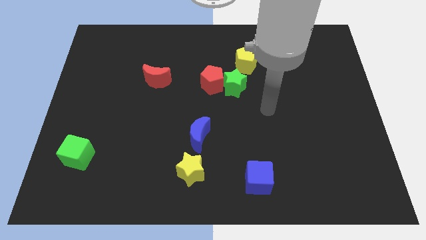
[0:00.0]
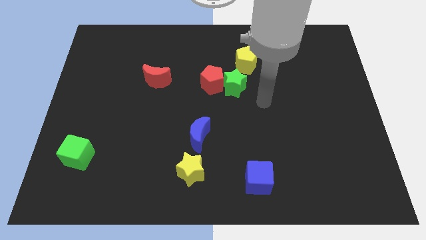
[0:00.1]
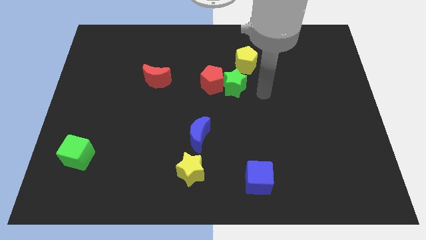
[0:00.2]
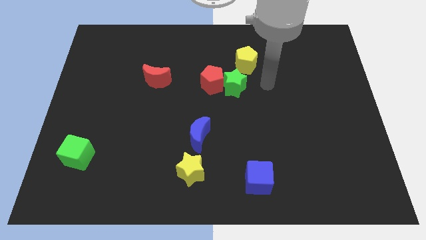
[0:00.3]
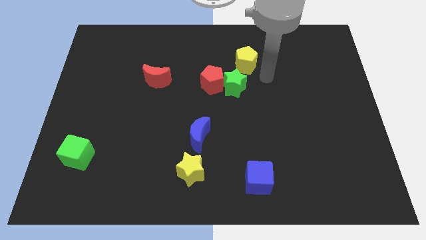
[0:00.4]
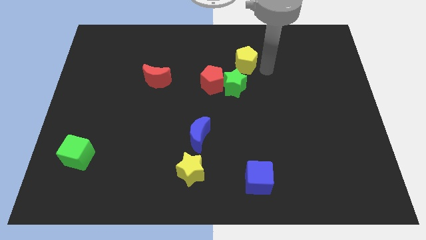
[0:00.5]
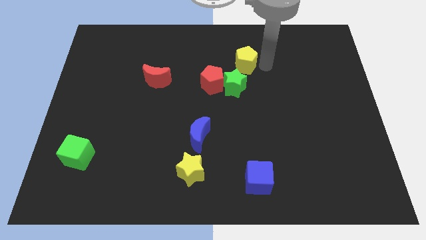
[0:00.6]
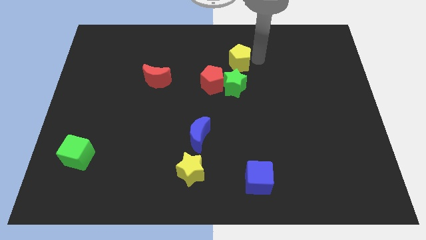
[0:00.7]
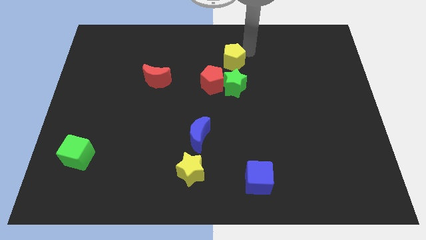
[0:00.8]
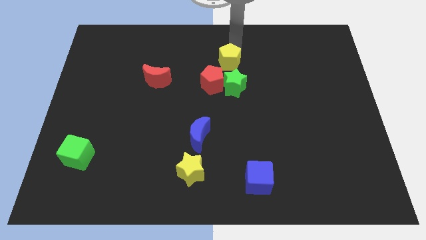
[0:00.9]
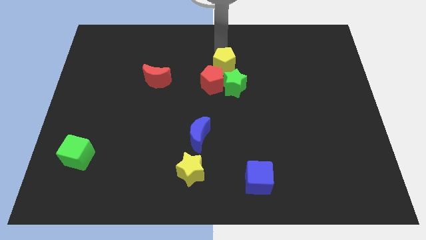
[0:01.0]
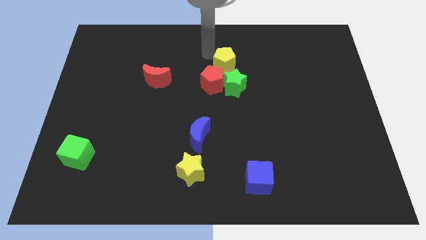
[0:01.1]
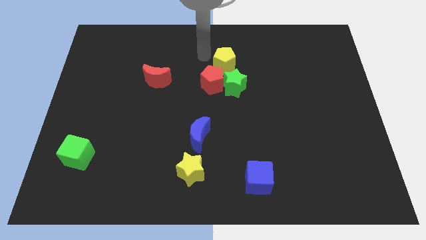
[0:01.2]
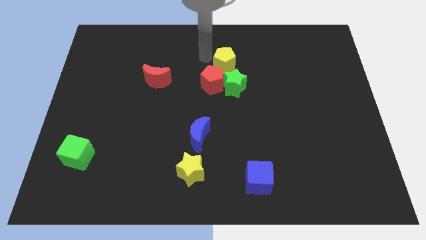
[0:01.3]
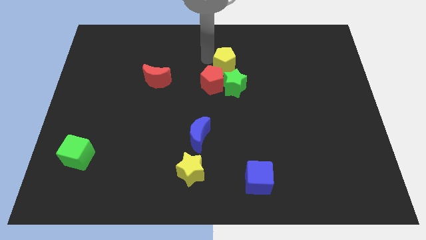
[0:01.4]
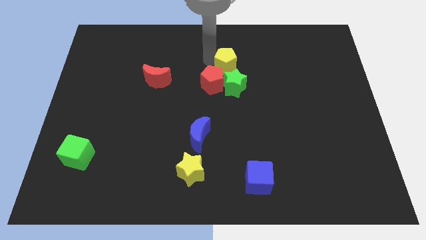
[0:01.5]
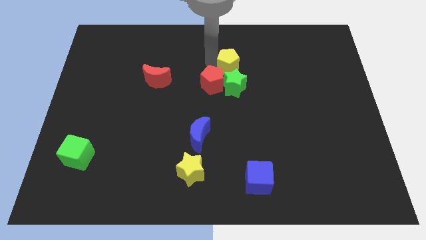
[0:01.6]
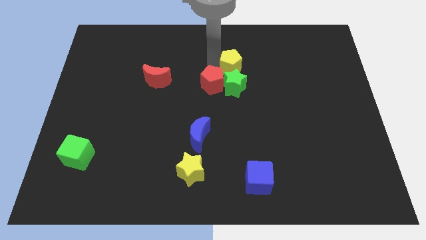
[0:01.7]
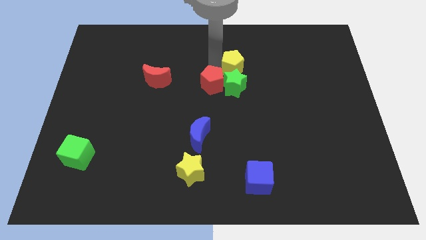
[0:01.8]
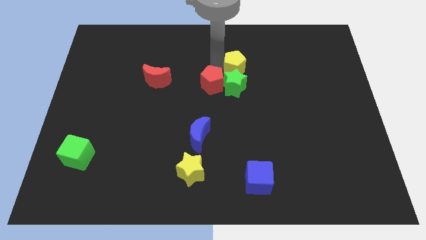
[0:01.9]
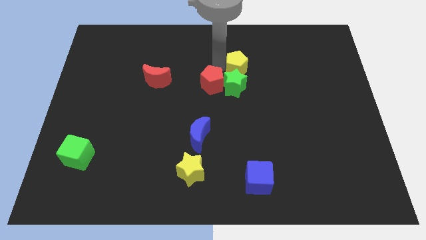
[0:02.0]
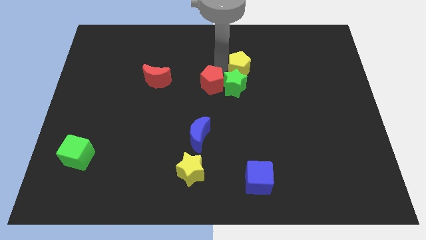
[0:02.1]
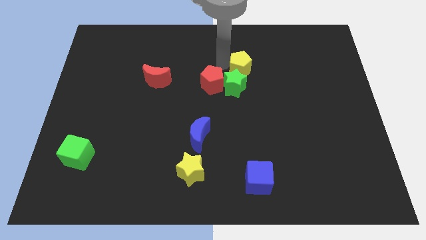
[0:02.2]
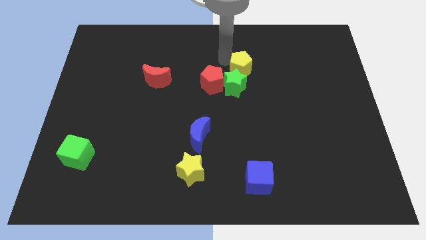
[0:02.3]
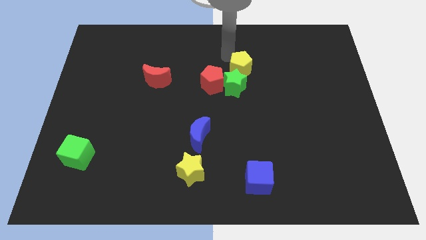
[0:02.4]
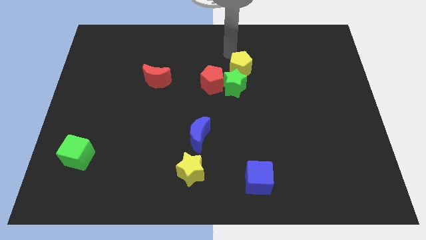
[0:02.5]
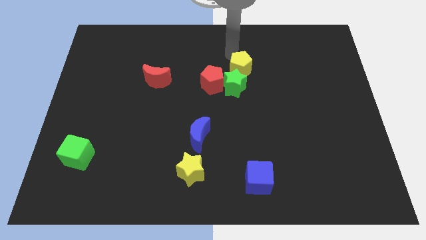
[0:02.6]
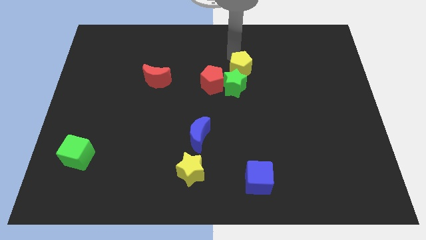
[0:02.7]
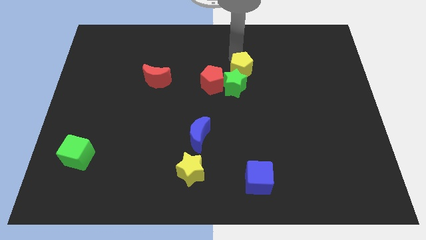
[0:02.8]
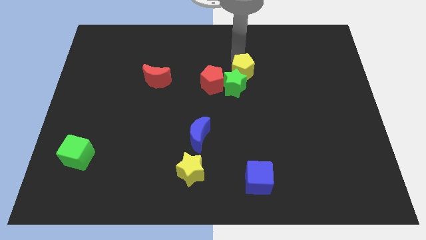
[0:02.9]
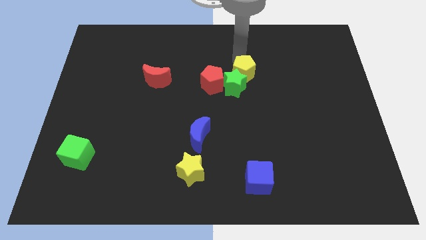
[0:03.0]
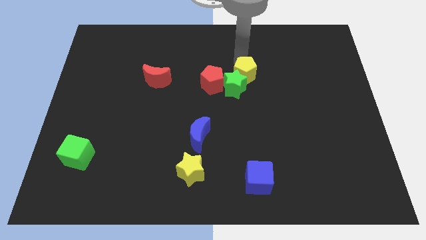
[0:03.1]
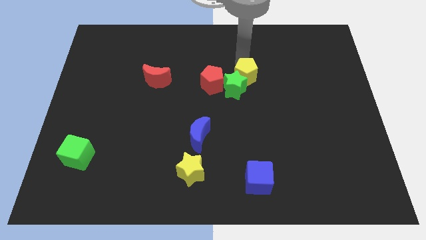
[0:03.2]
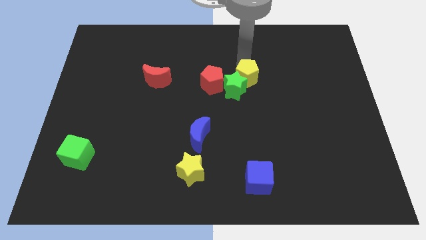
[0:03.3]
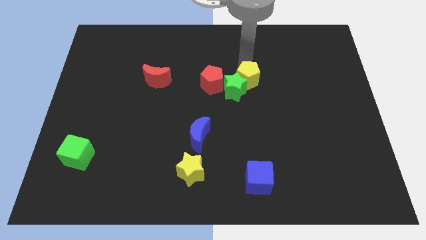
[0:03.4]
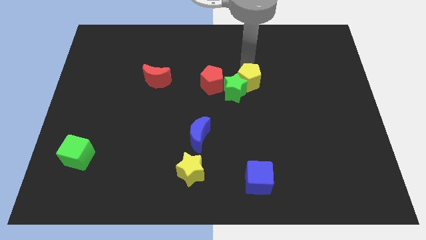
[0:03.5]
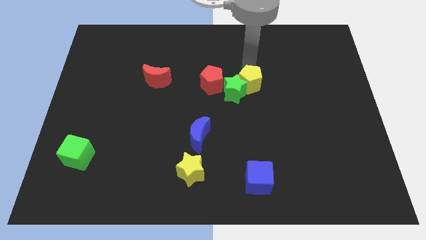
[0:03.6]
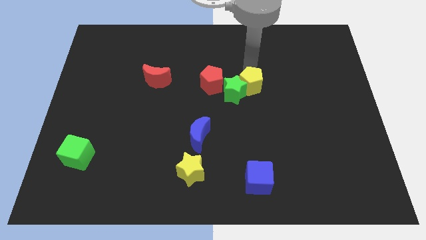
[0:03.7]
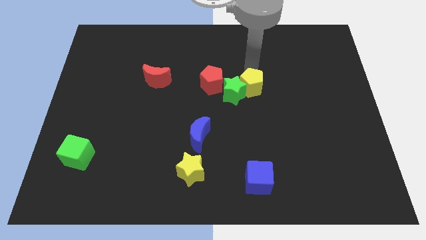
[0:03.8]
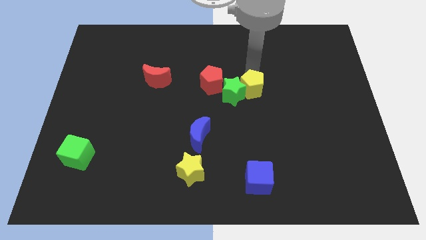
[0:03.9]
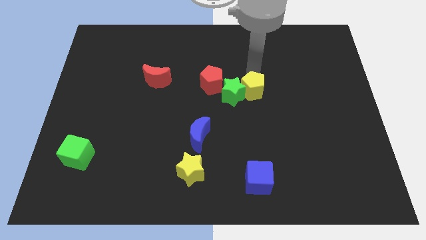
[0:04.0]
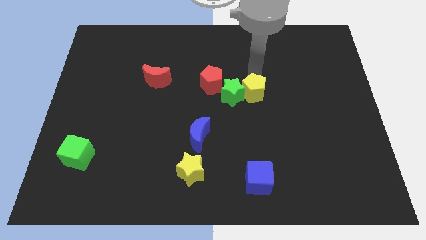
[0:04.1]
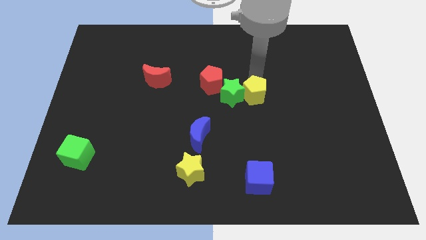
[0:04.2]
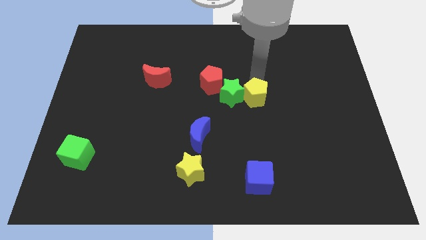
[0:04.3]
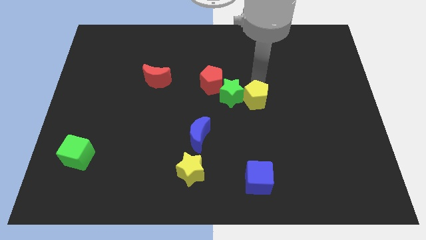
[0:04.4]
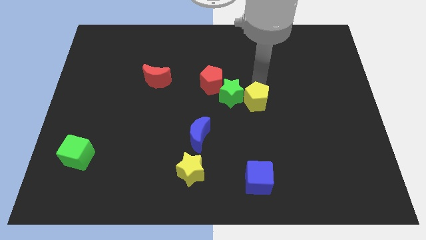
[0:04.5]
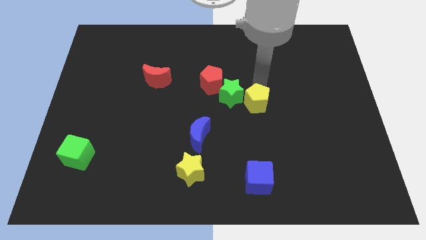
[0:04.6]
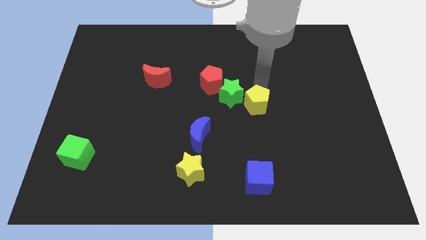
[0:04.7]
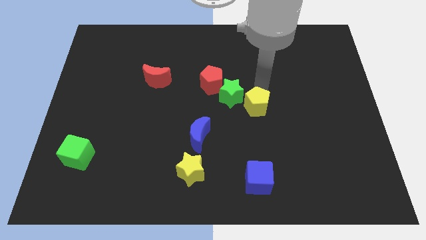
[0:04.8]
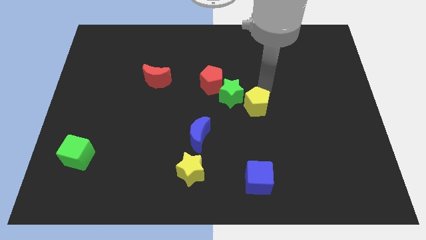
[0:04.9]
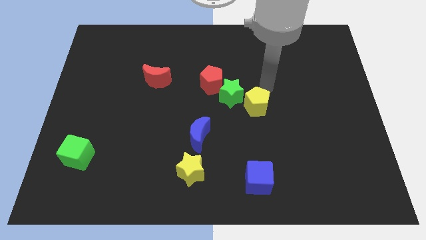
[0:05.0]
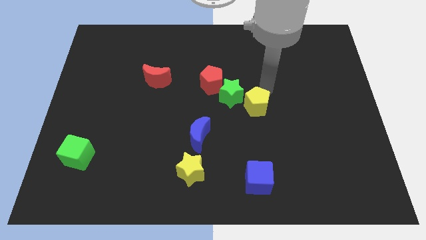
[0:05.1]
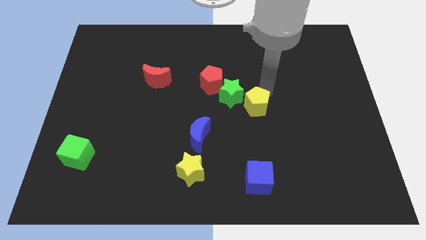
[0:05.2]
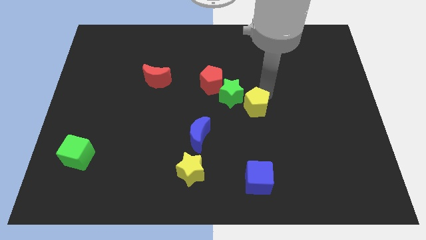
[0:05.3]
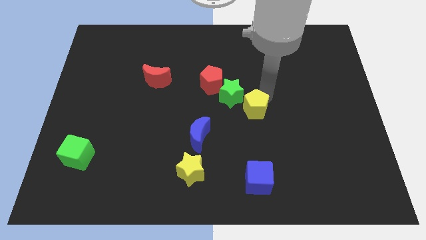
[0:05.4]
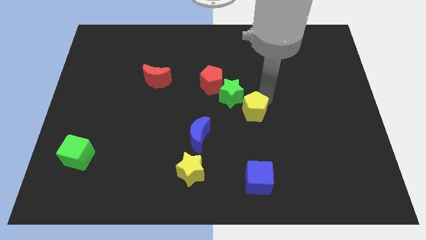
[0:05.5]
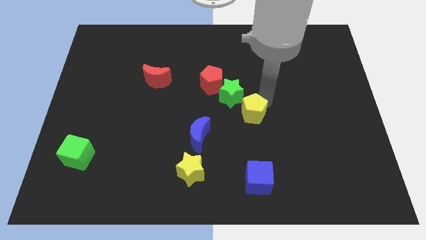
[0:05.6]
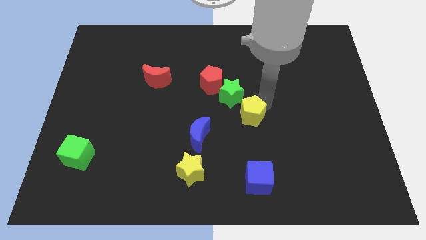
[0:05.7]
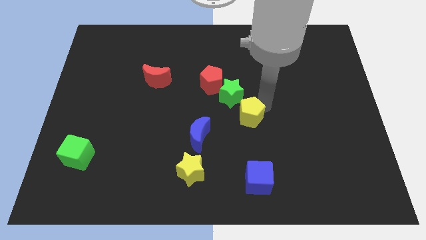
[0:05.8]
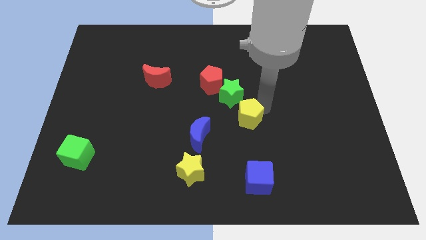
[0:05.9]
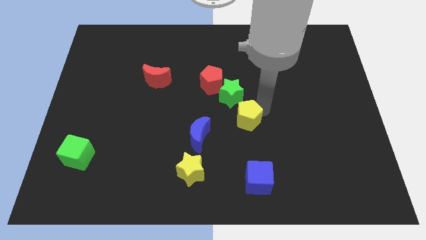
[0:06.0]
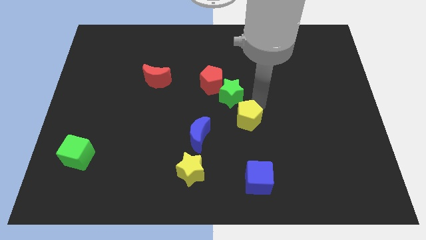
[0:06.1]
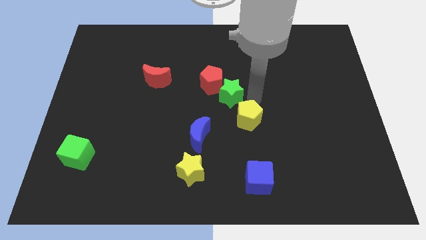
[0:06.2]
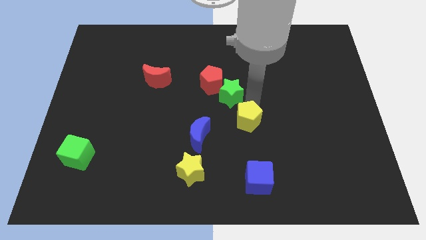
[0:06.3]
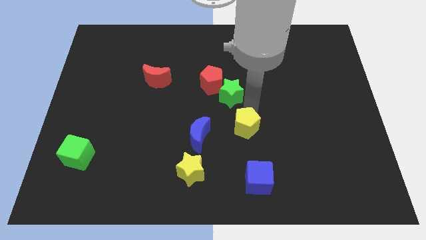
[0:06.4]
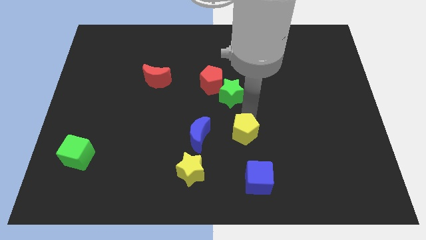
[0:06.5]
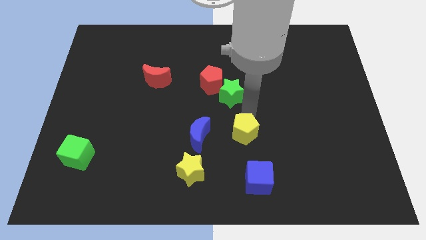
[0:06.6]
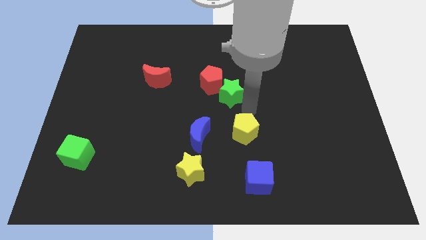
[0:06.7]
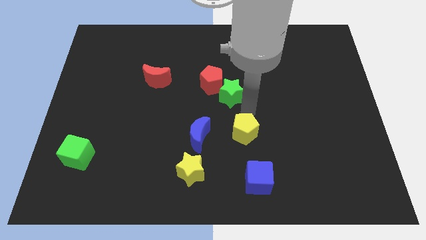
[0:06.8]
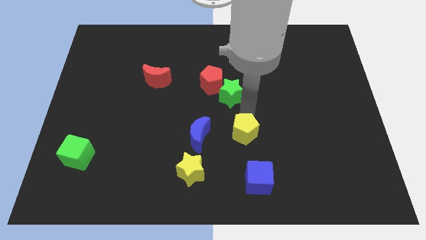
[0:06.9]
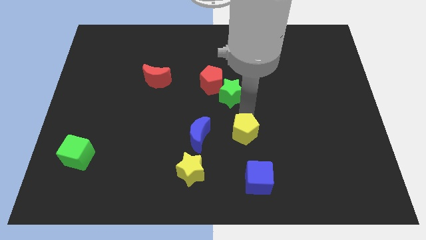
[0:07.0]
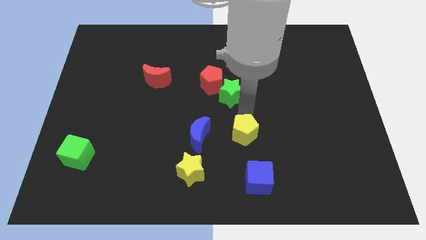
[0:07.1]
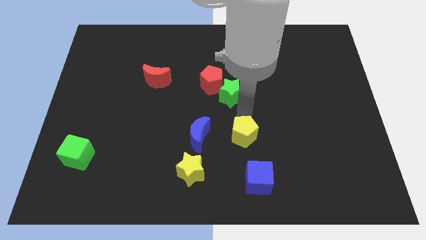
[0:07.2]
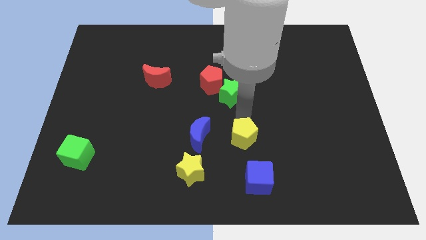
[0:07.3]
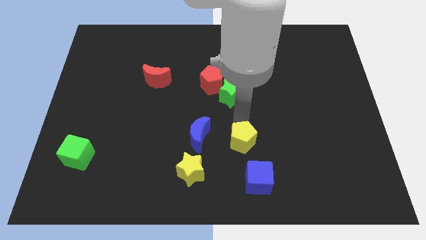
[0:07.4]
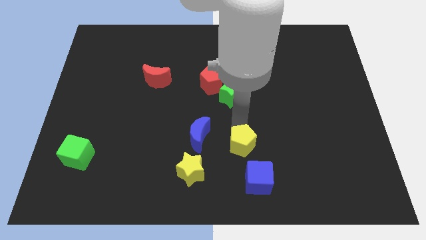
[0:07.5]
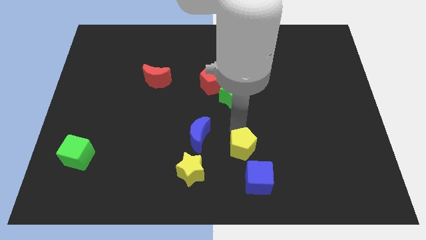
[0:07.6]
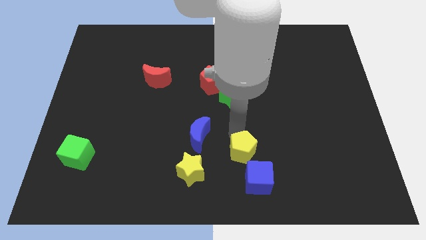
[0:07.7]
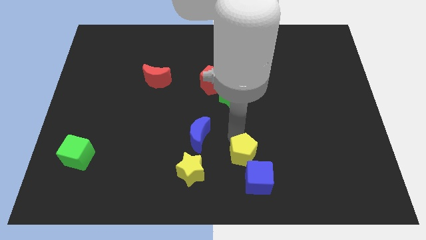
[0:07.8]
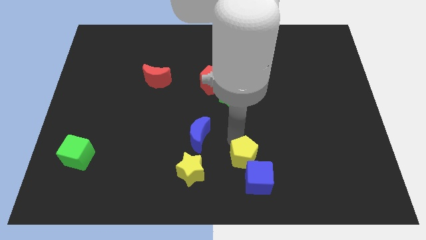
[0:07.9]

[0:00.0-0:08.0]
slide the yellow pentagon towards the blue cube
